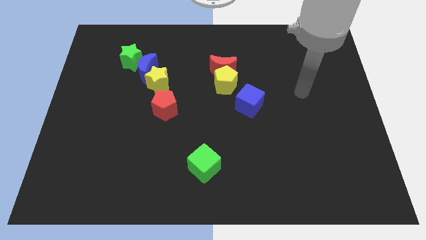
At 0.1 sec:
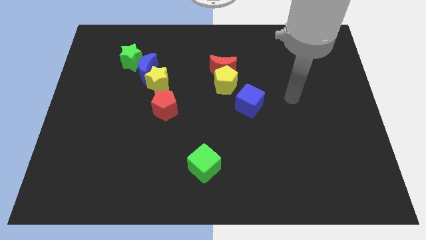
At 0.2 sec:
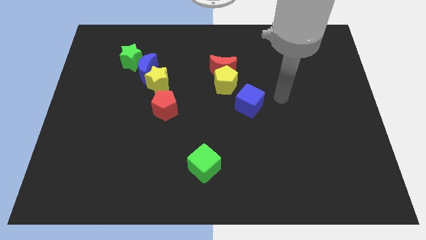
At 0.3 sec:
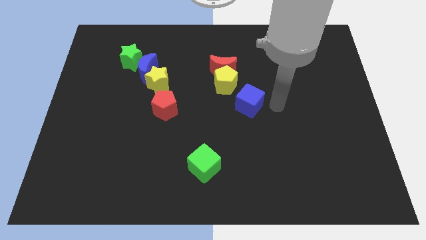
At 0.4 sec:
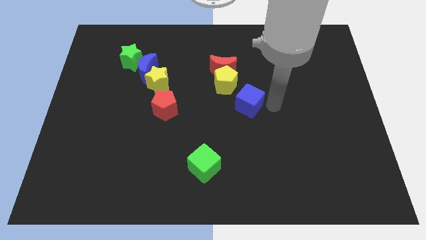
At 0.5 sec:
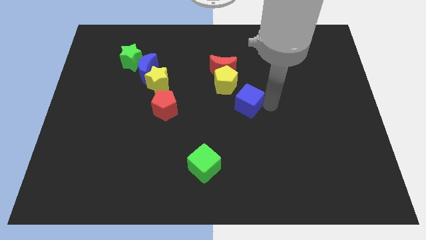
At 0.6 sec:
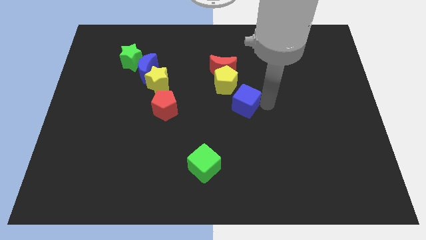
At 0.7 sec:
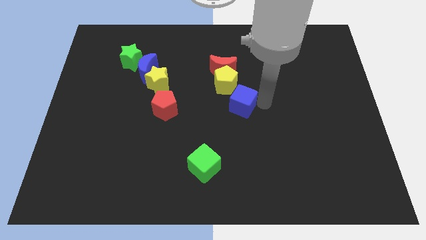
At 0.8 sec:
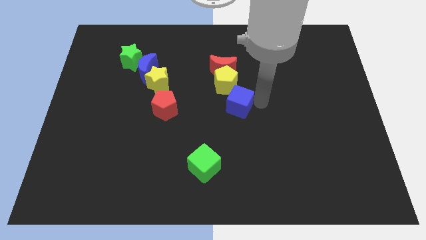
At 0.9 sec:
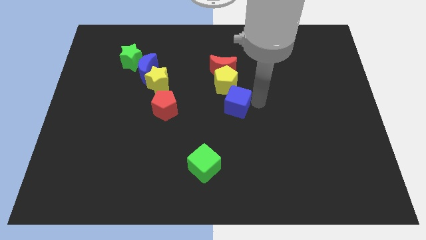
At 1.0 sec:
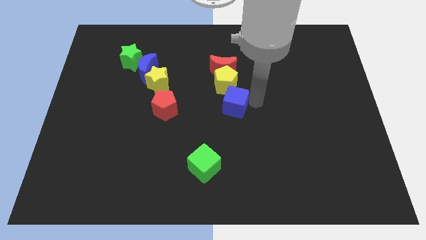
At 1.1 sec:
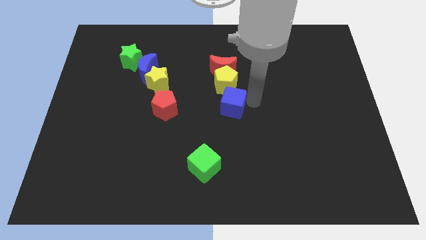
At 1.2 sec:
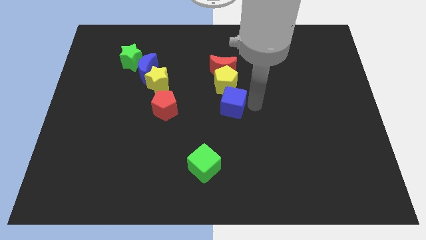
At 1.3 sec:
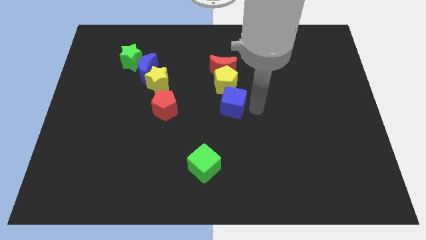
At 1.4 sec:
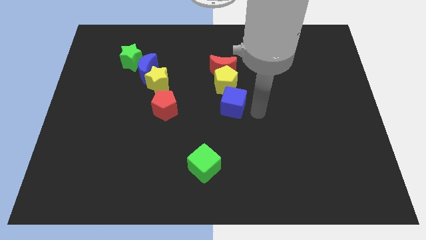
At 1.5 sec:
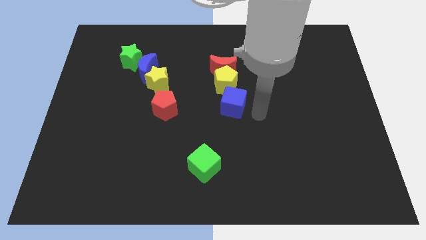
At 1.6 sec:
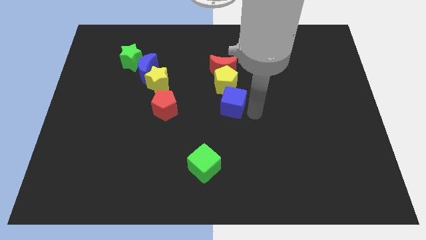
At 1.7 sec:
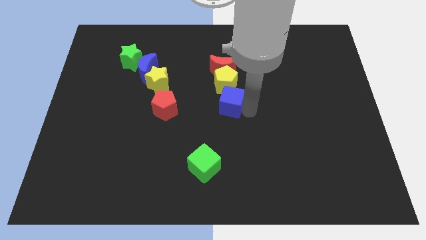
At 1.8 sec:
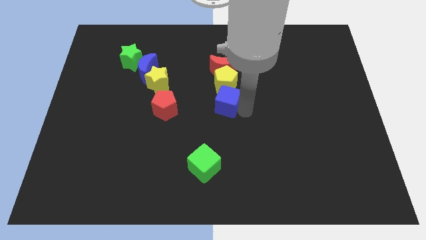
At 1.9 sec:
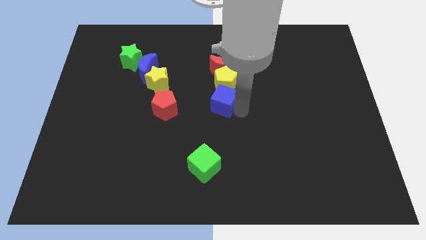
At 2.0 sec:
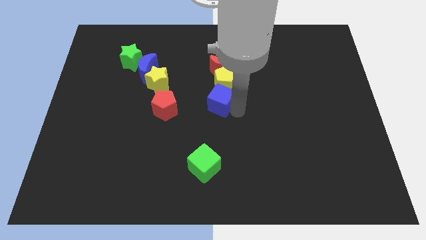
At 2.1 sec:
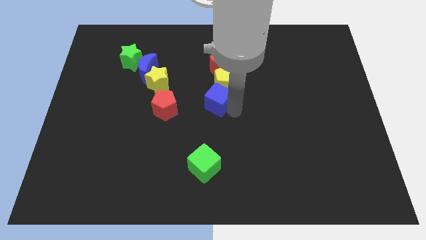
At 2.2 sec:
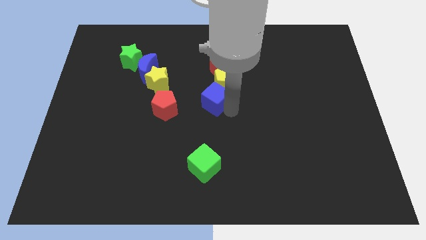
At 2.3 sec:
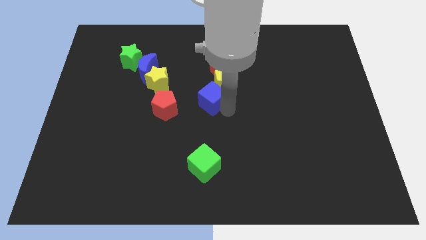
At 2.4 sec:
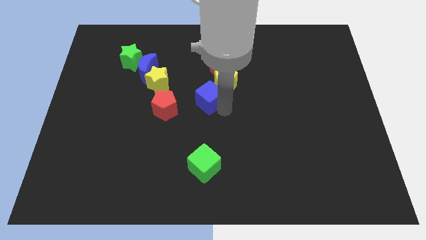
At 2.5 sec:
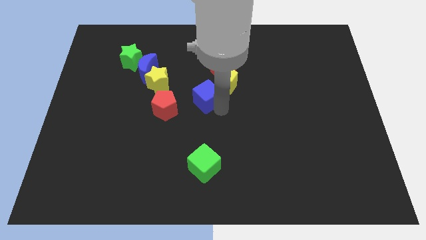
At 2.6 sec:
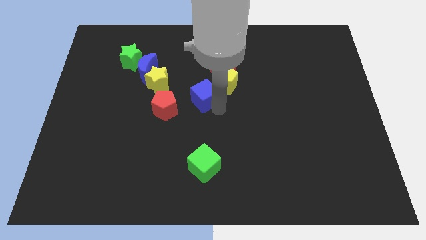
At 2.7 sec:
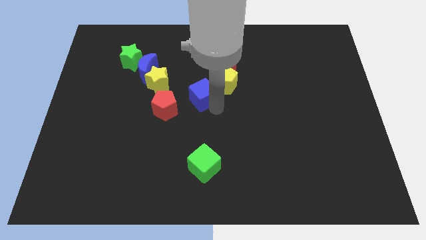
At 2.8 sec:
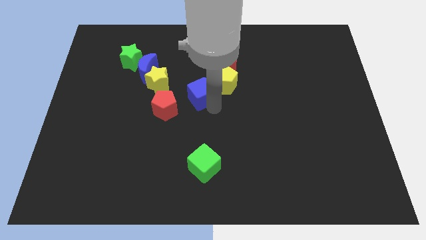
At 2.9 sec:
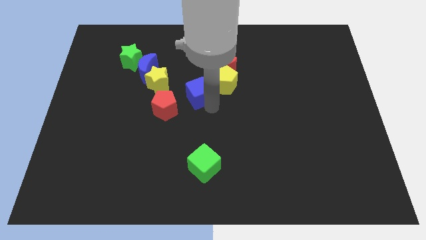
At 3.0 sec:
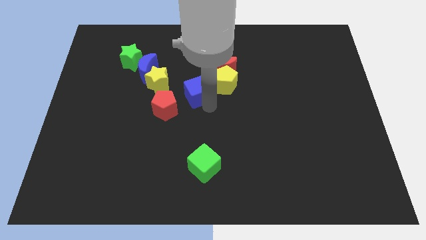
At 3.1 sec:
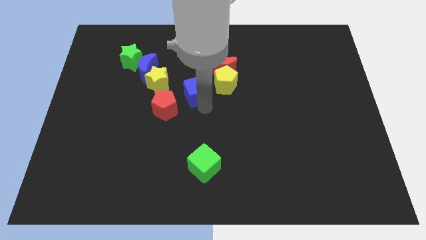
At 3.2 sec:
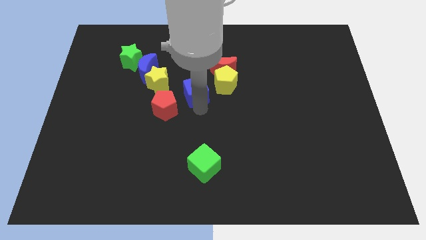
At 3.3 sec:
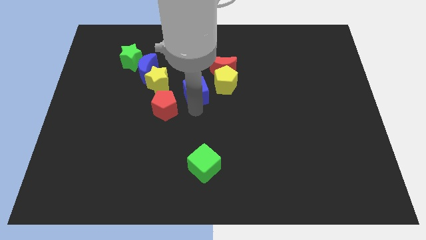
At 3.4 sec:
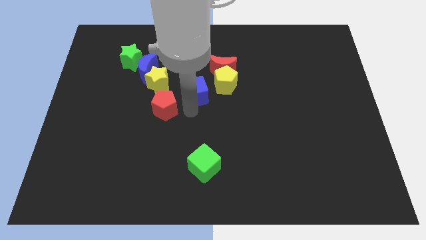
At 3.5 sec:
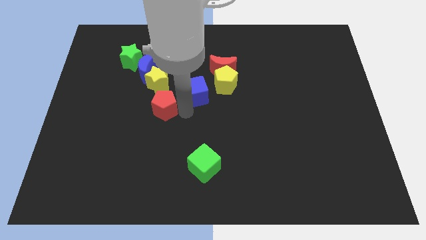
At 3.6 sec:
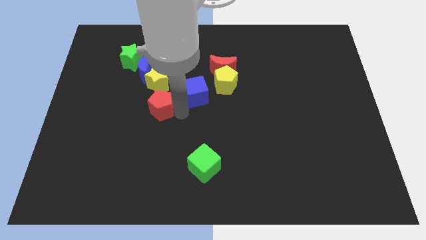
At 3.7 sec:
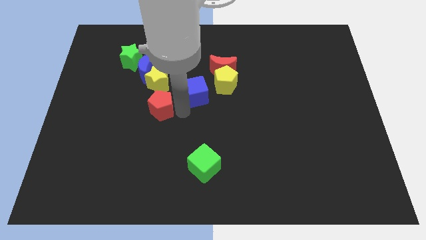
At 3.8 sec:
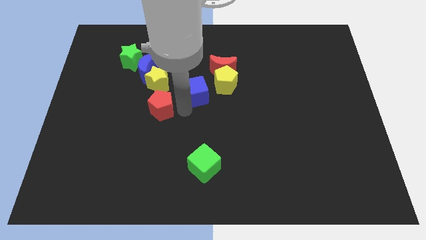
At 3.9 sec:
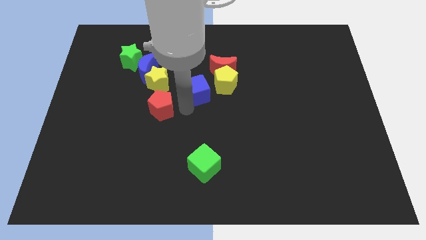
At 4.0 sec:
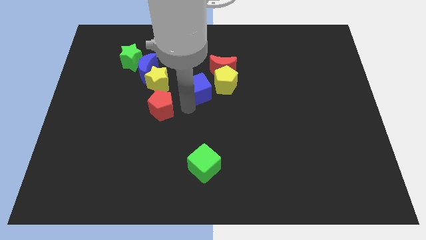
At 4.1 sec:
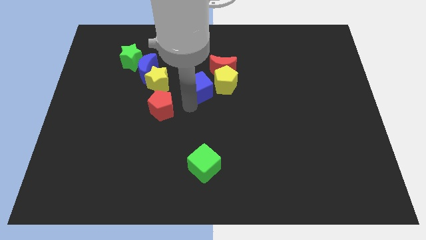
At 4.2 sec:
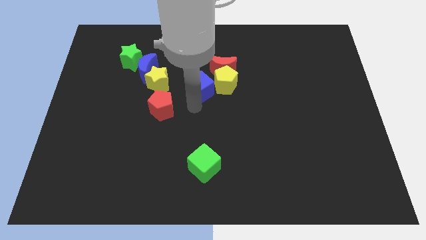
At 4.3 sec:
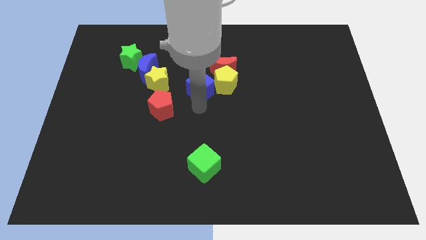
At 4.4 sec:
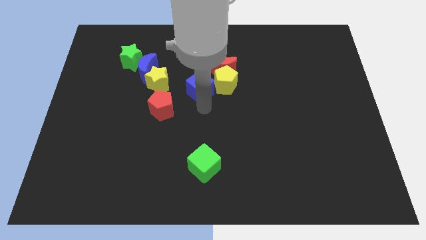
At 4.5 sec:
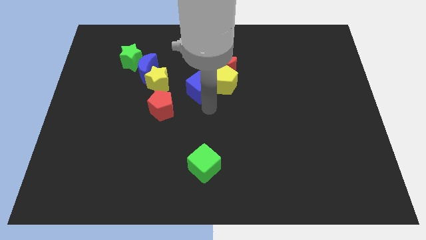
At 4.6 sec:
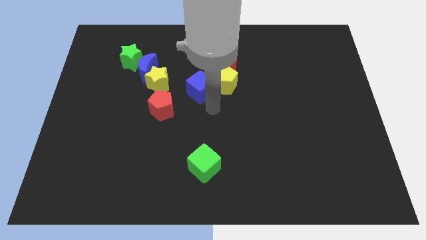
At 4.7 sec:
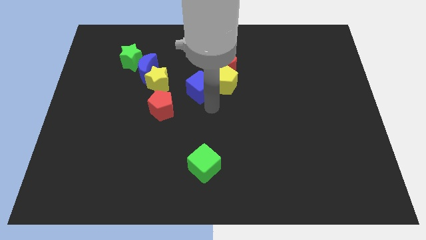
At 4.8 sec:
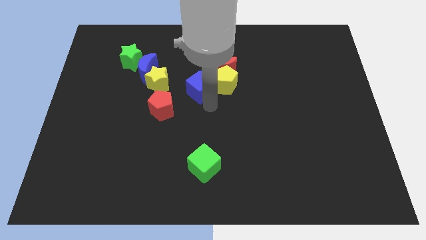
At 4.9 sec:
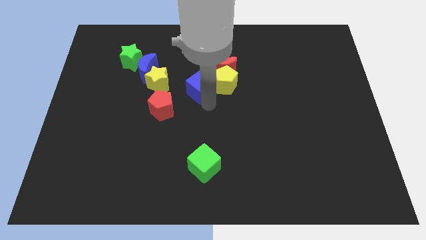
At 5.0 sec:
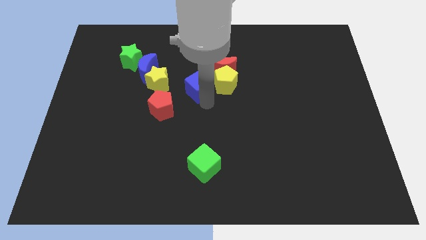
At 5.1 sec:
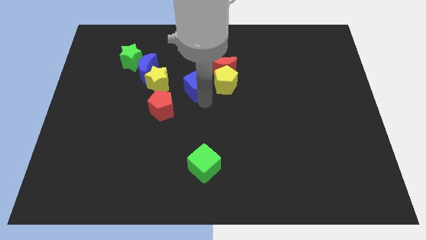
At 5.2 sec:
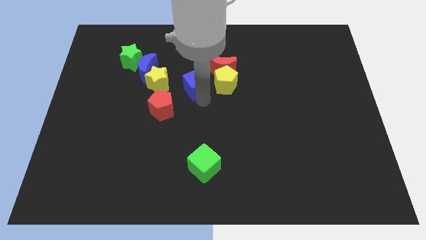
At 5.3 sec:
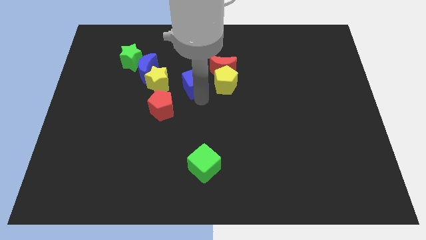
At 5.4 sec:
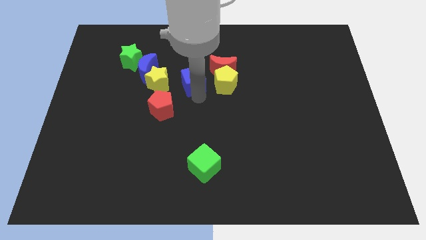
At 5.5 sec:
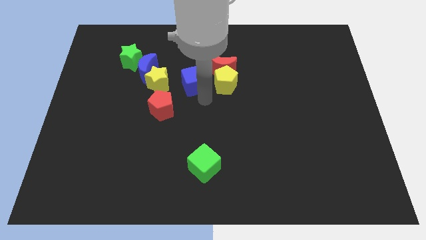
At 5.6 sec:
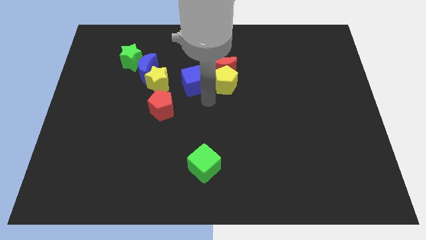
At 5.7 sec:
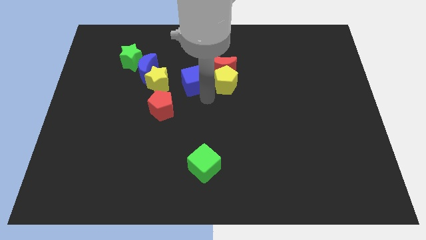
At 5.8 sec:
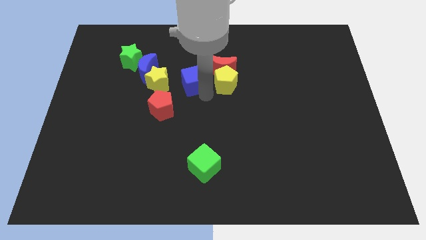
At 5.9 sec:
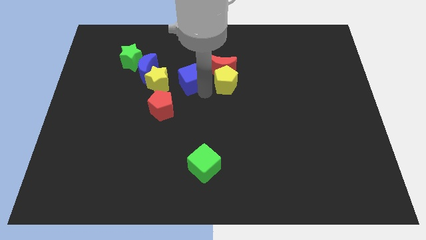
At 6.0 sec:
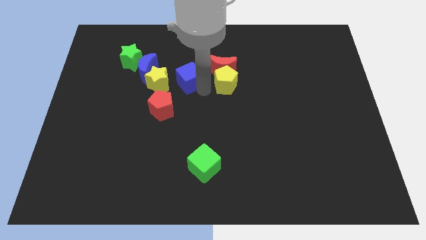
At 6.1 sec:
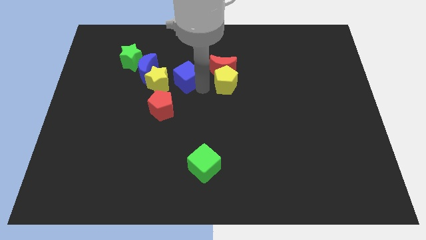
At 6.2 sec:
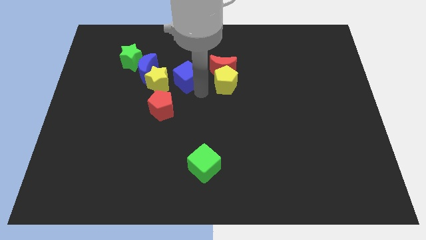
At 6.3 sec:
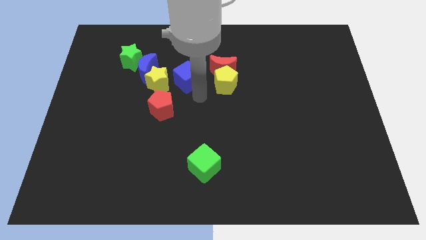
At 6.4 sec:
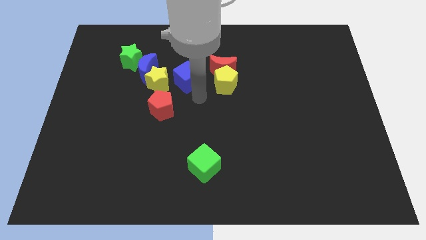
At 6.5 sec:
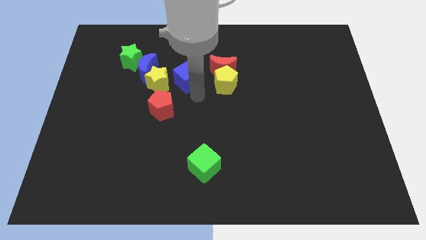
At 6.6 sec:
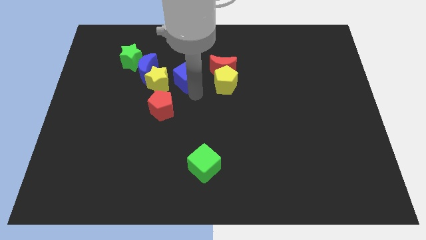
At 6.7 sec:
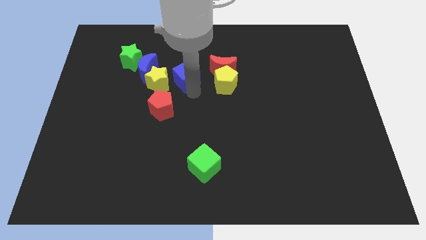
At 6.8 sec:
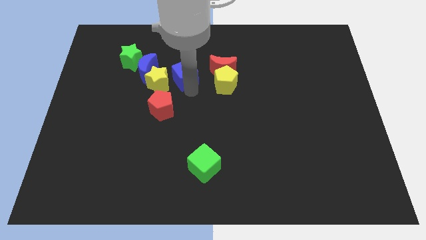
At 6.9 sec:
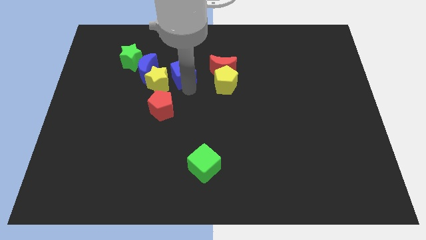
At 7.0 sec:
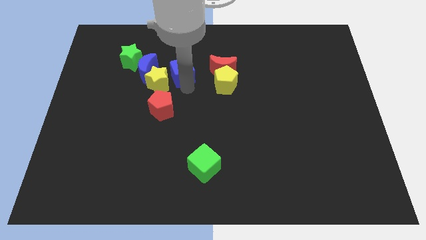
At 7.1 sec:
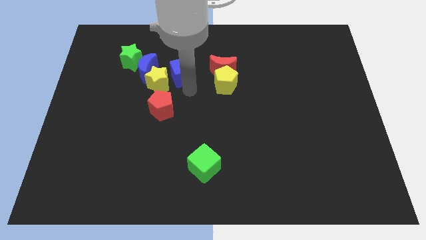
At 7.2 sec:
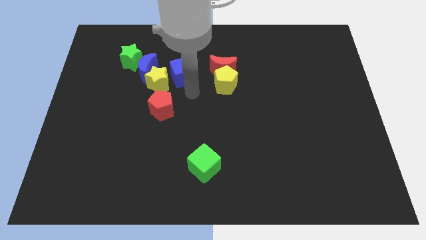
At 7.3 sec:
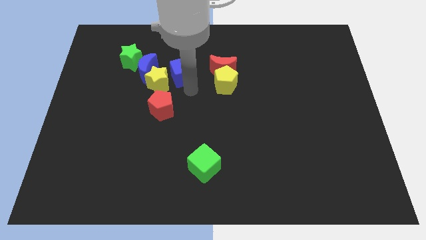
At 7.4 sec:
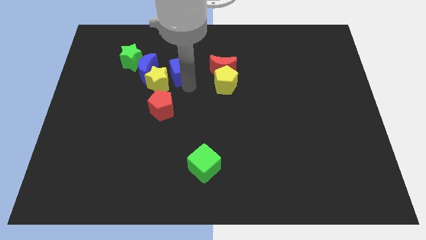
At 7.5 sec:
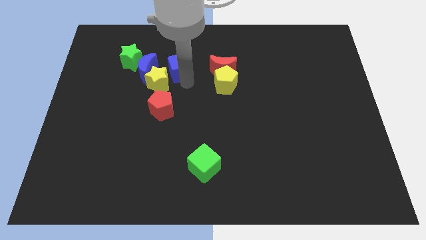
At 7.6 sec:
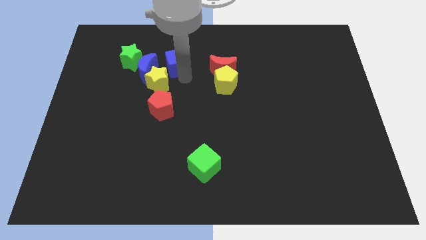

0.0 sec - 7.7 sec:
push the blue cube diagonally up and to the right of the blue moon

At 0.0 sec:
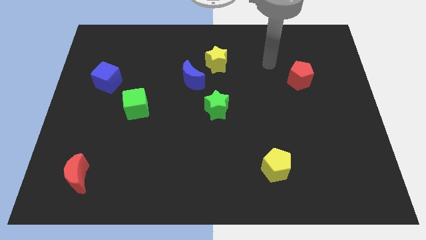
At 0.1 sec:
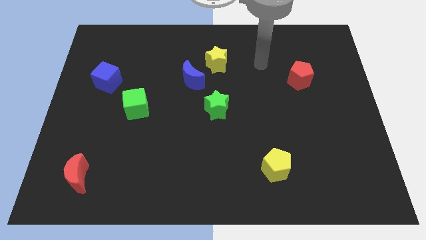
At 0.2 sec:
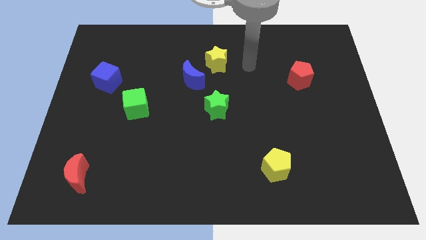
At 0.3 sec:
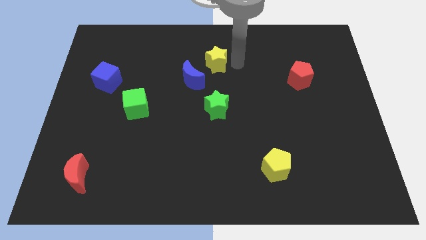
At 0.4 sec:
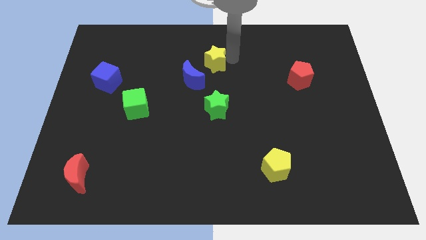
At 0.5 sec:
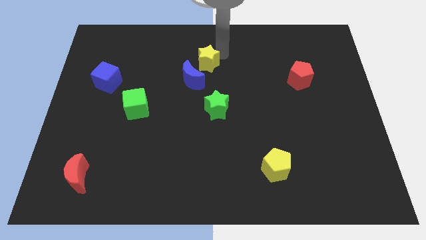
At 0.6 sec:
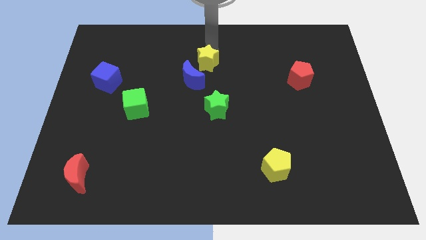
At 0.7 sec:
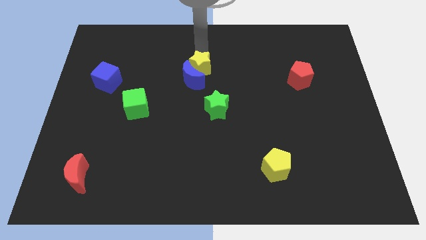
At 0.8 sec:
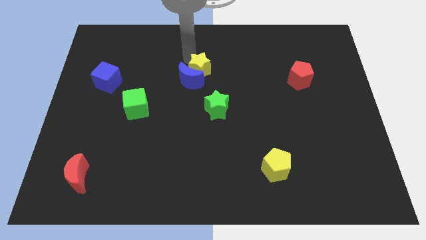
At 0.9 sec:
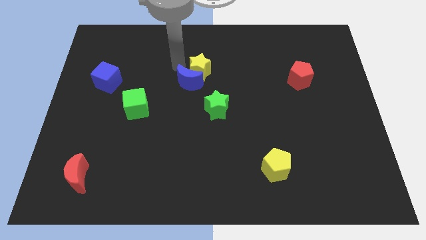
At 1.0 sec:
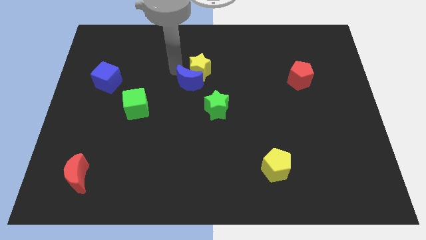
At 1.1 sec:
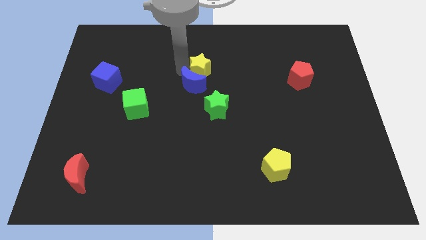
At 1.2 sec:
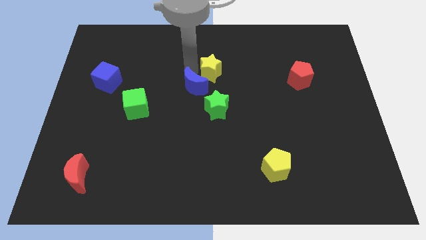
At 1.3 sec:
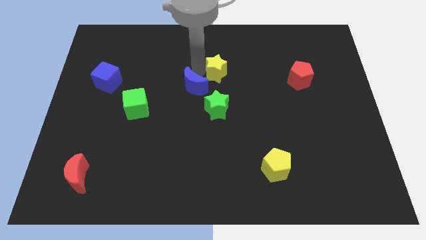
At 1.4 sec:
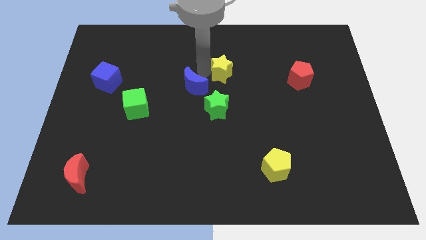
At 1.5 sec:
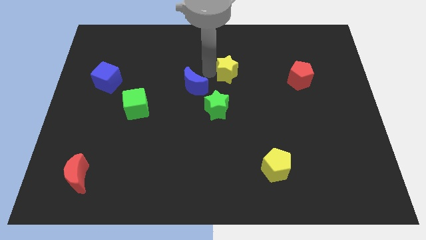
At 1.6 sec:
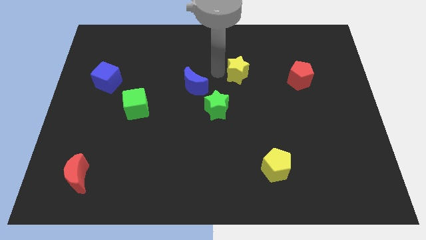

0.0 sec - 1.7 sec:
put the yellow star to the left of the red pentagon
